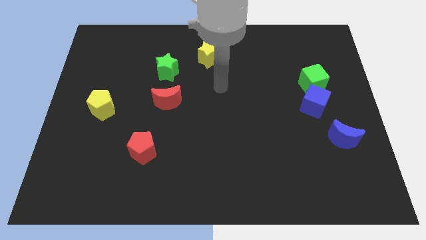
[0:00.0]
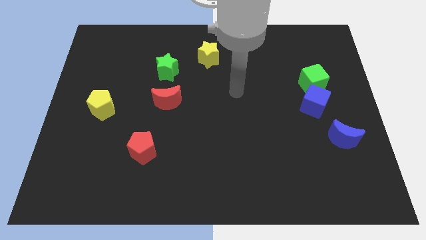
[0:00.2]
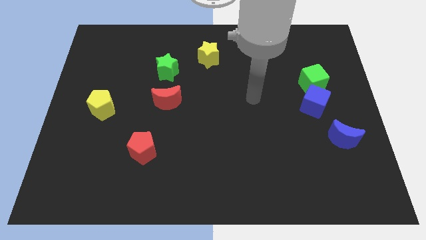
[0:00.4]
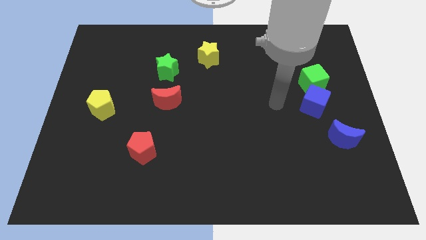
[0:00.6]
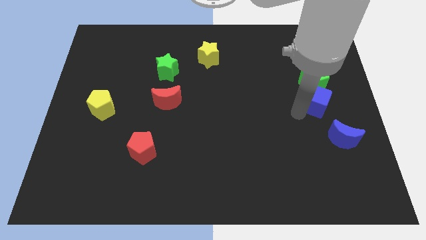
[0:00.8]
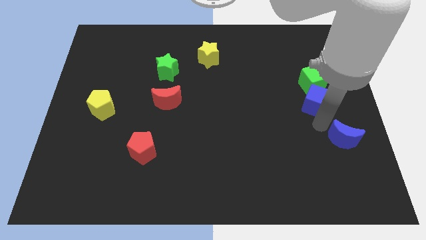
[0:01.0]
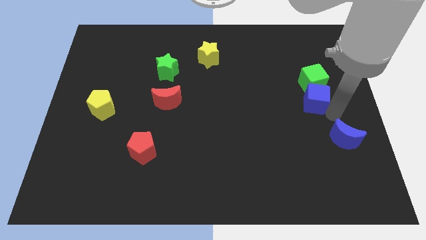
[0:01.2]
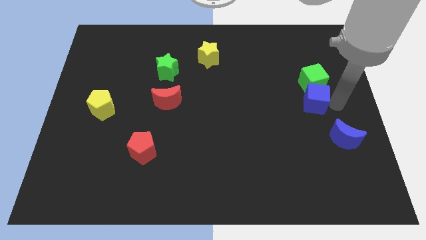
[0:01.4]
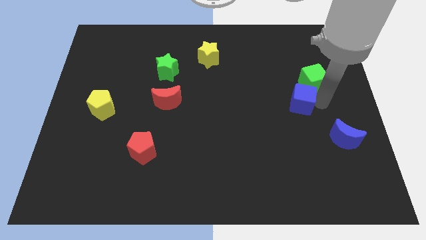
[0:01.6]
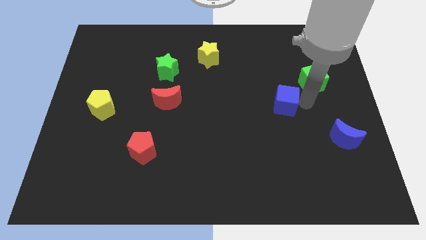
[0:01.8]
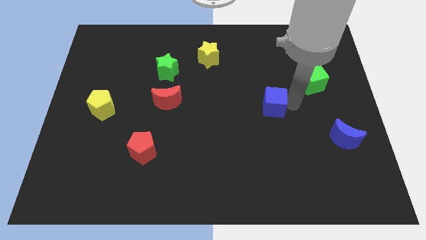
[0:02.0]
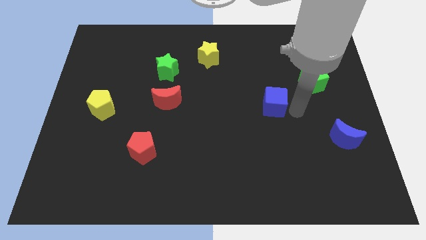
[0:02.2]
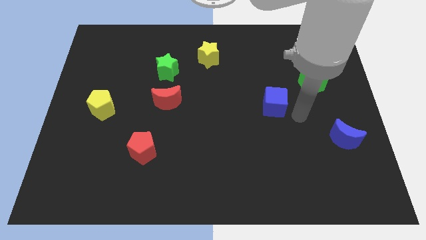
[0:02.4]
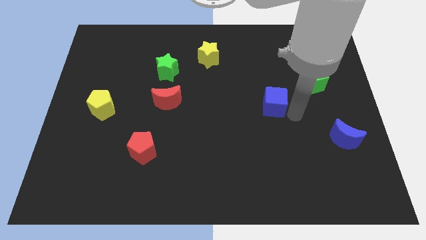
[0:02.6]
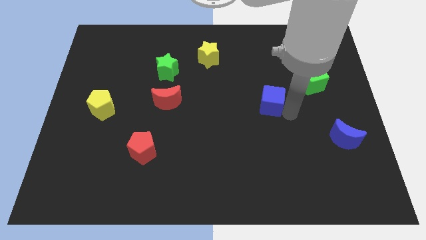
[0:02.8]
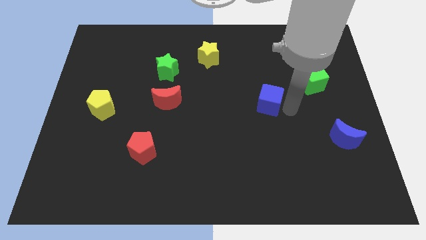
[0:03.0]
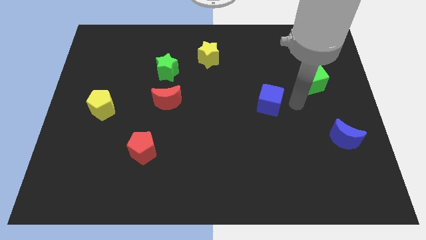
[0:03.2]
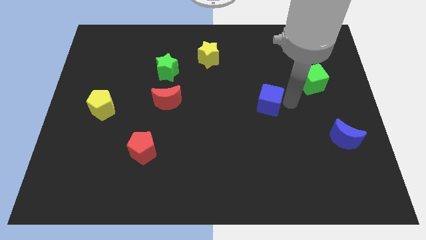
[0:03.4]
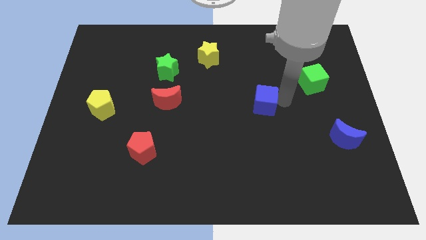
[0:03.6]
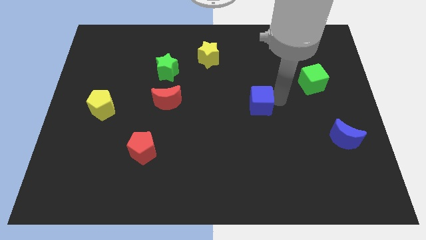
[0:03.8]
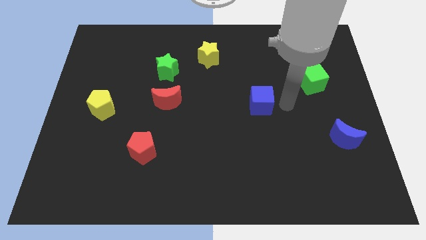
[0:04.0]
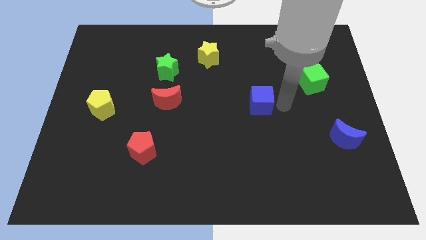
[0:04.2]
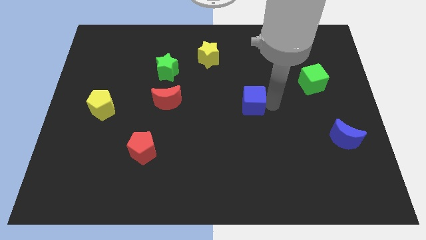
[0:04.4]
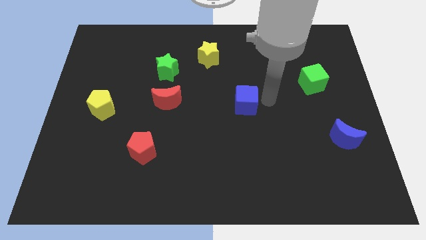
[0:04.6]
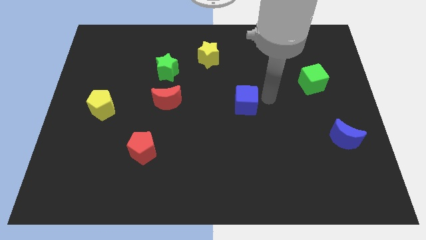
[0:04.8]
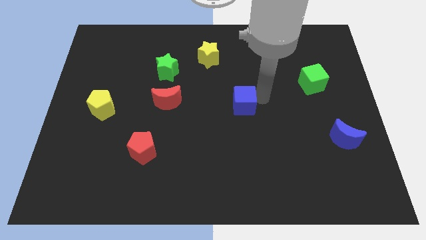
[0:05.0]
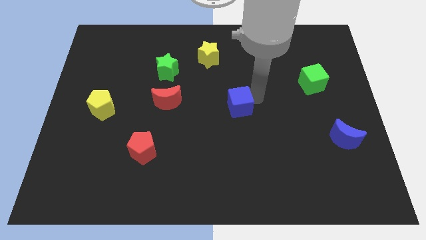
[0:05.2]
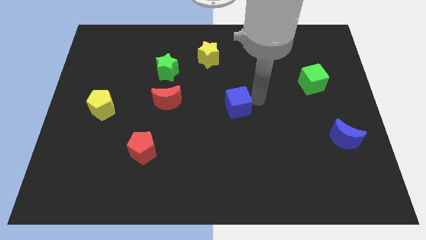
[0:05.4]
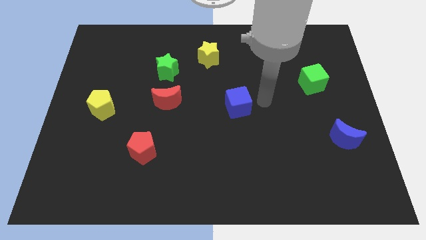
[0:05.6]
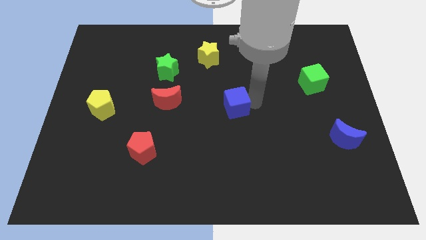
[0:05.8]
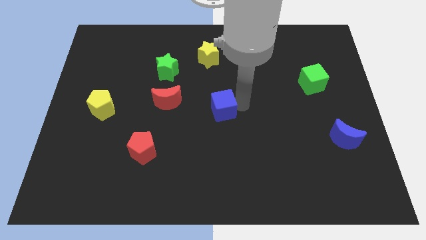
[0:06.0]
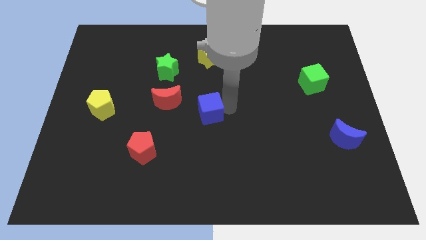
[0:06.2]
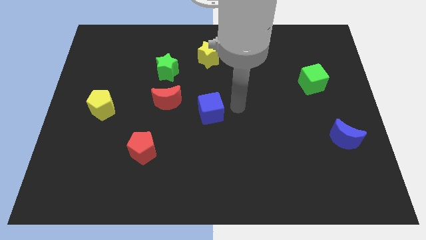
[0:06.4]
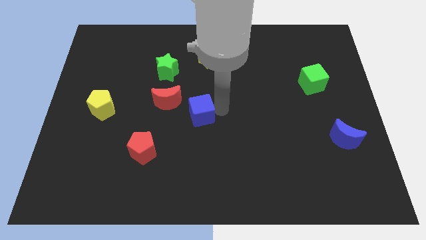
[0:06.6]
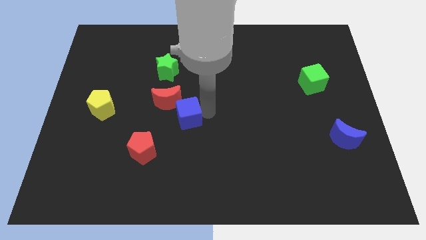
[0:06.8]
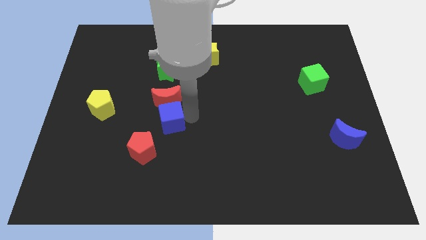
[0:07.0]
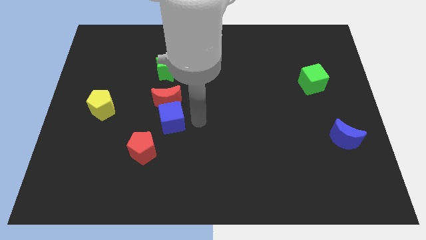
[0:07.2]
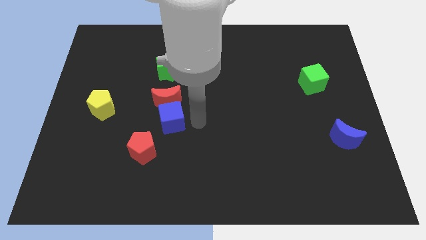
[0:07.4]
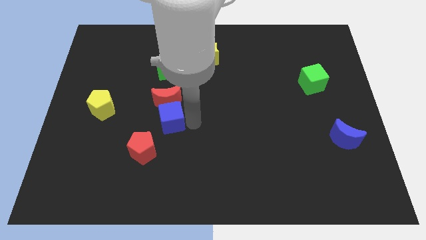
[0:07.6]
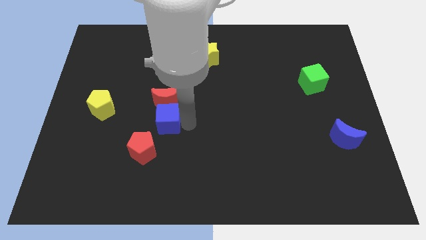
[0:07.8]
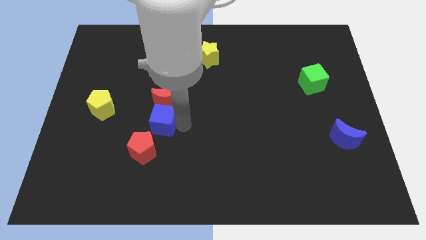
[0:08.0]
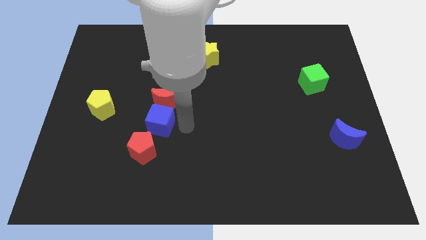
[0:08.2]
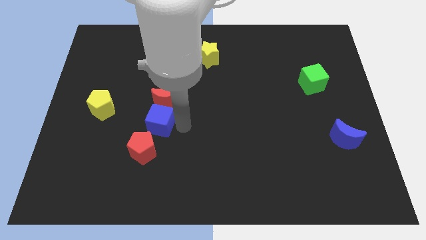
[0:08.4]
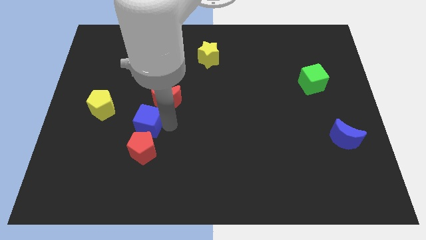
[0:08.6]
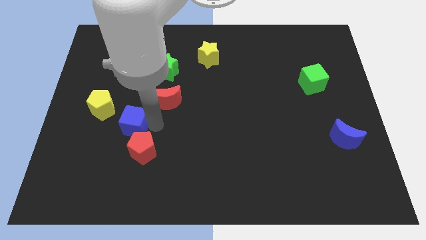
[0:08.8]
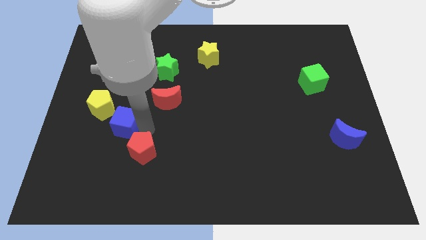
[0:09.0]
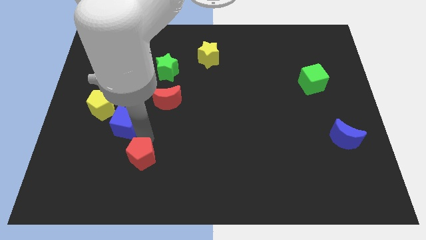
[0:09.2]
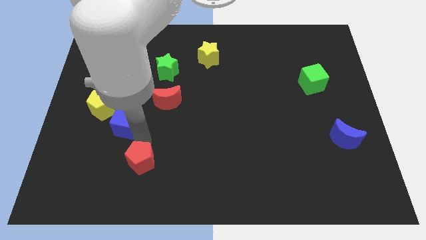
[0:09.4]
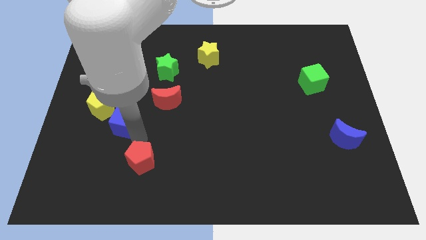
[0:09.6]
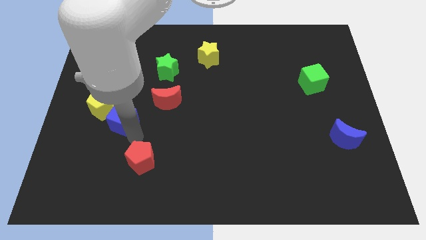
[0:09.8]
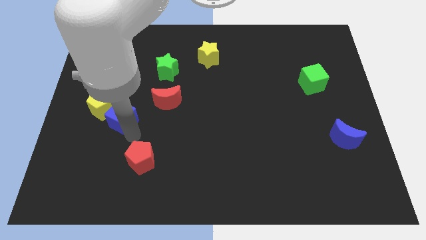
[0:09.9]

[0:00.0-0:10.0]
push the blue cube next to the yellow pentagon

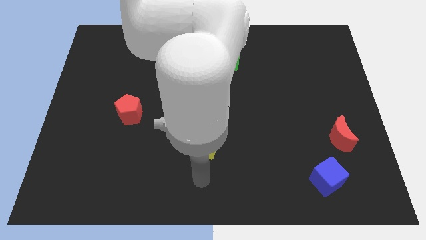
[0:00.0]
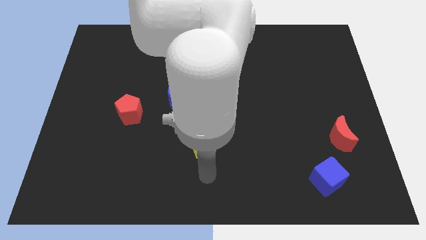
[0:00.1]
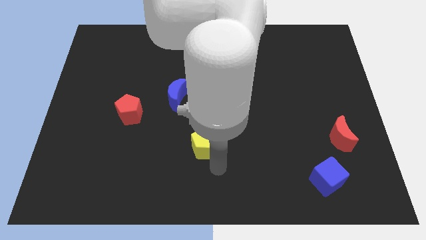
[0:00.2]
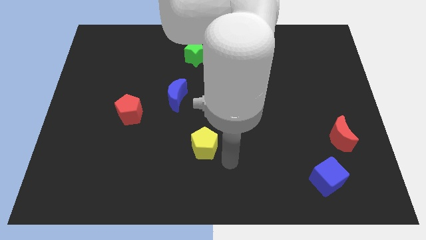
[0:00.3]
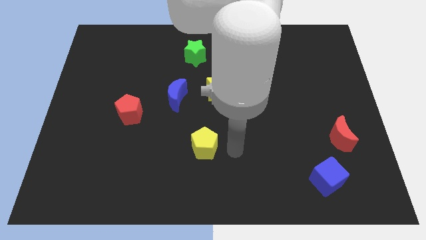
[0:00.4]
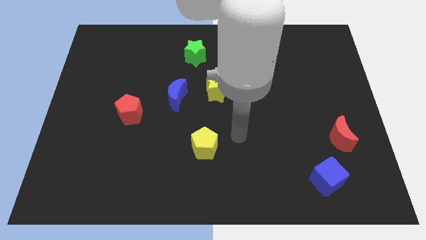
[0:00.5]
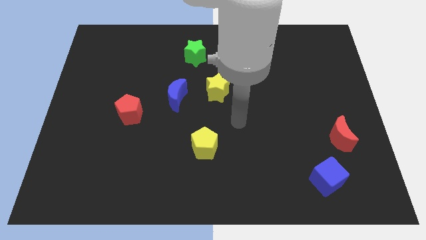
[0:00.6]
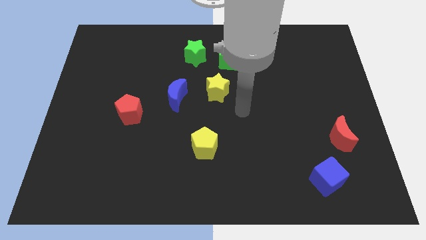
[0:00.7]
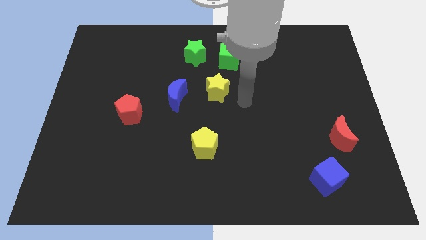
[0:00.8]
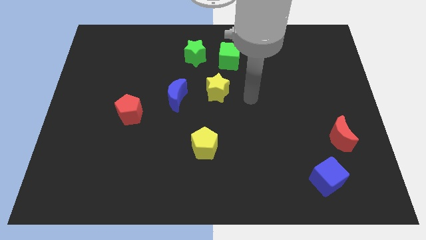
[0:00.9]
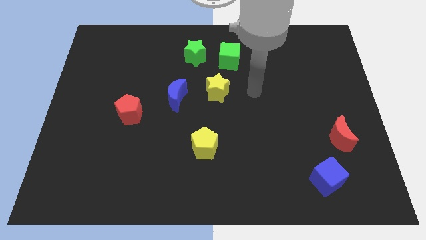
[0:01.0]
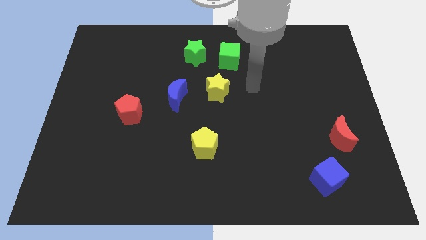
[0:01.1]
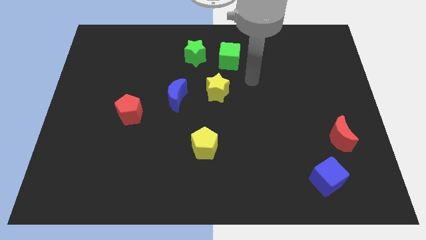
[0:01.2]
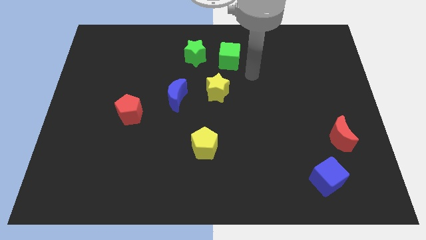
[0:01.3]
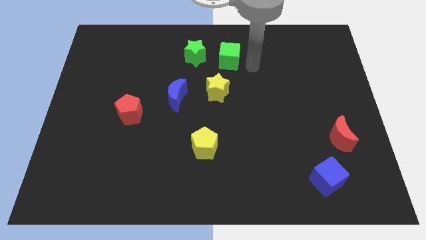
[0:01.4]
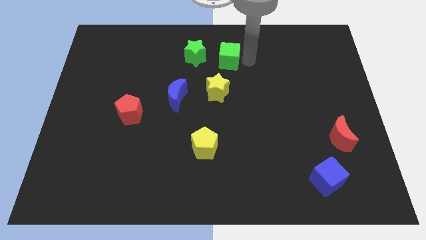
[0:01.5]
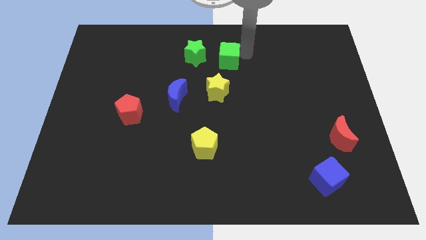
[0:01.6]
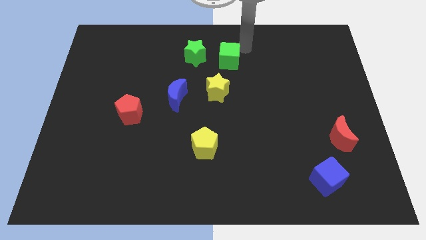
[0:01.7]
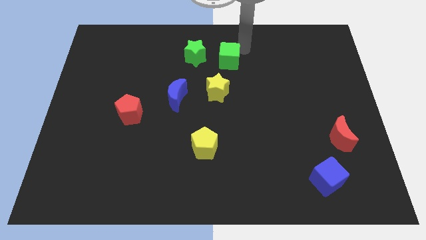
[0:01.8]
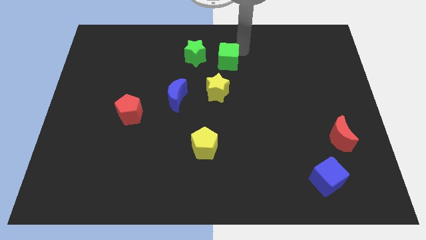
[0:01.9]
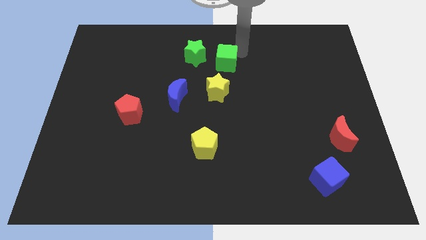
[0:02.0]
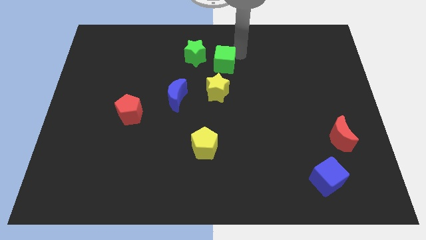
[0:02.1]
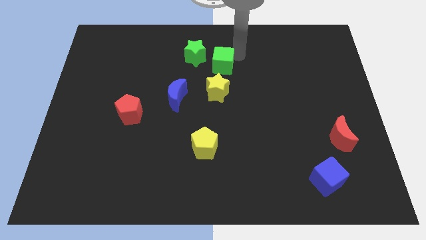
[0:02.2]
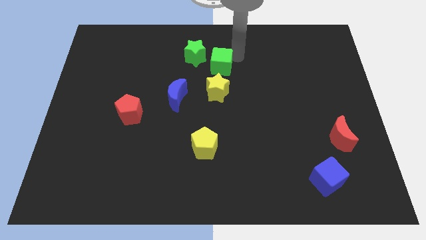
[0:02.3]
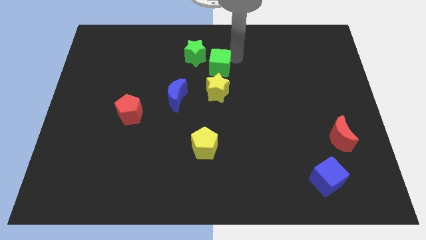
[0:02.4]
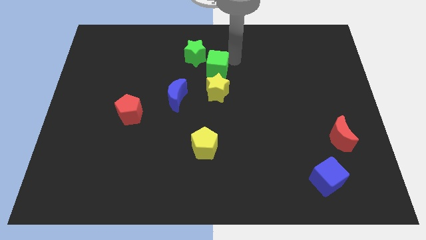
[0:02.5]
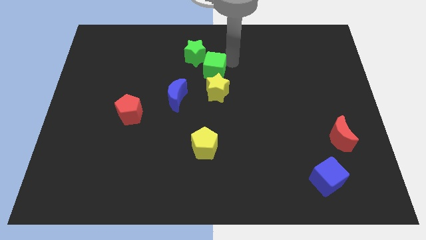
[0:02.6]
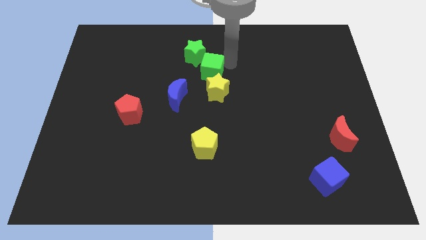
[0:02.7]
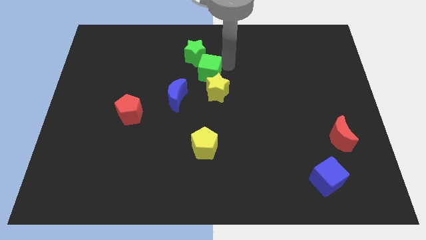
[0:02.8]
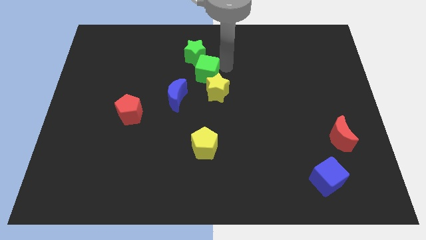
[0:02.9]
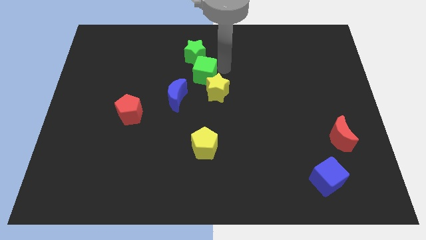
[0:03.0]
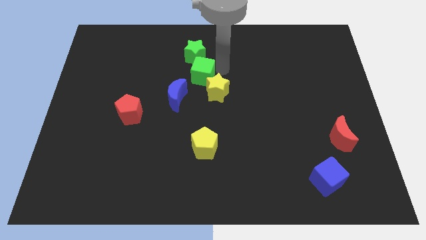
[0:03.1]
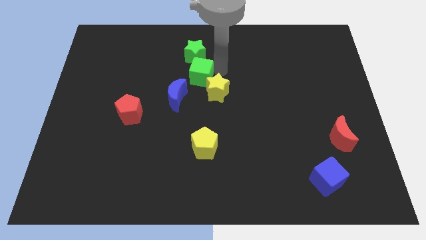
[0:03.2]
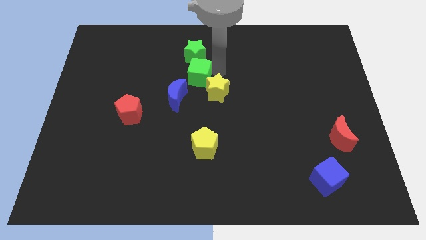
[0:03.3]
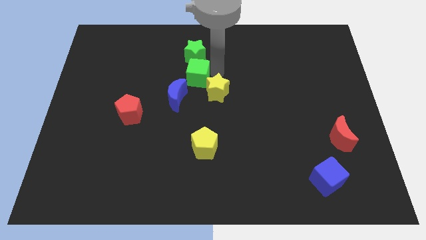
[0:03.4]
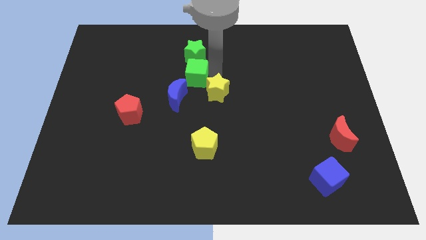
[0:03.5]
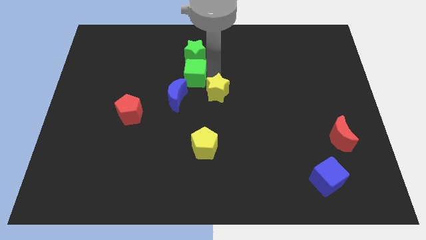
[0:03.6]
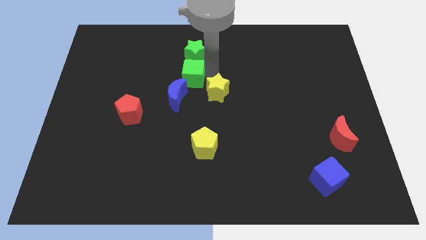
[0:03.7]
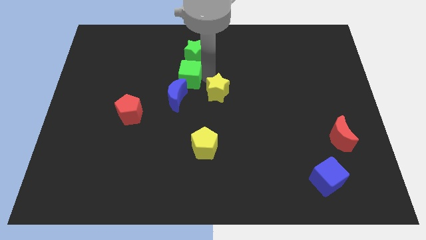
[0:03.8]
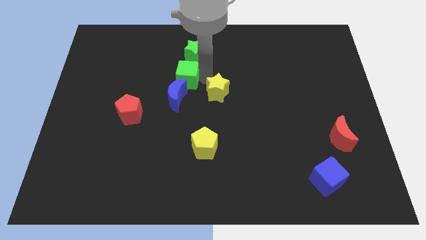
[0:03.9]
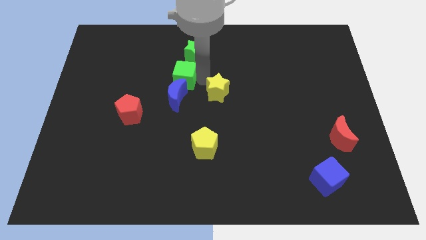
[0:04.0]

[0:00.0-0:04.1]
put the green cube towards the blue moon
